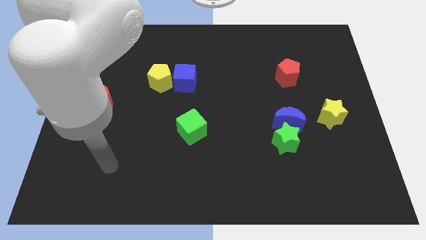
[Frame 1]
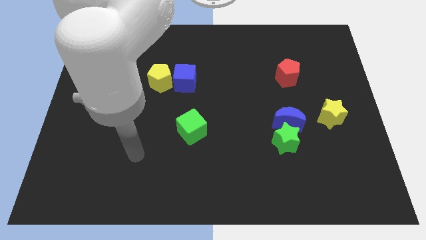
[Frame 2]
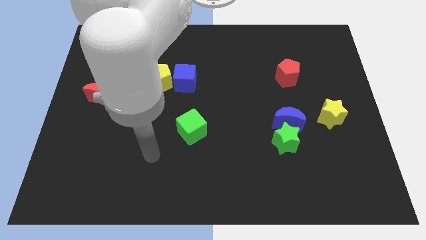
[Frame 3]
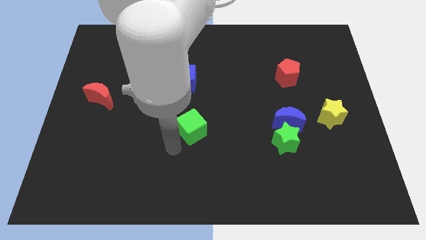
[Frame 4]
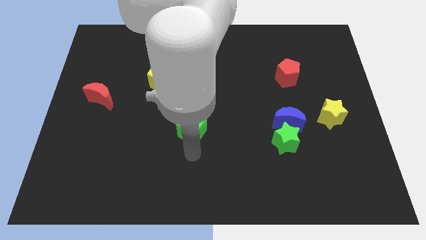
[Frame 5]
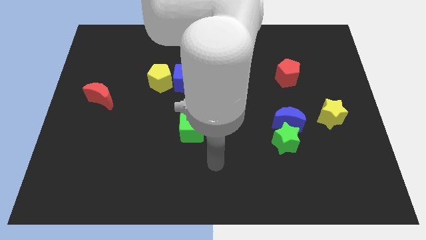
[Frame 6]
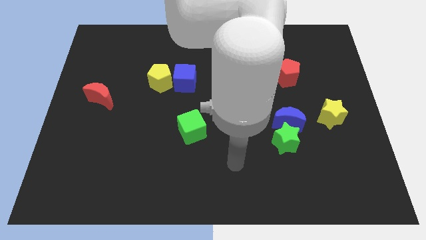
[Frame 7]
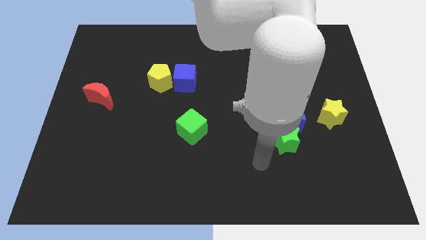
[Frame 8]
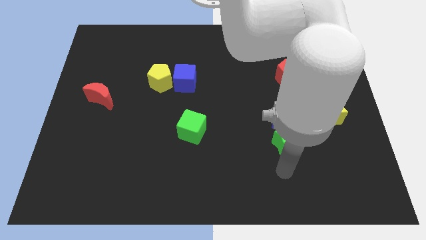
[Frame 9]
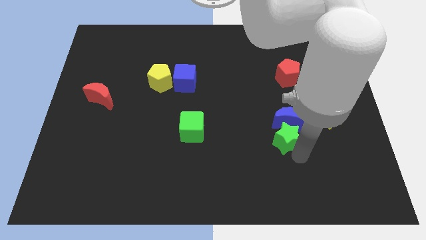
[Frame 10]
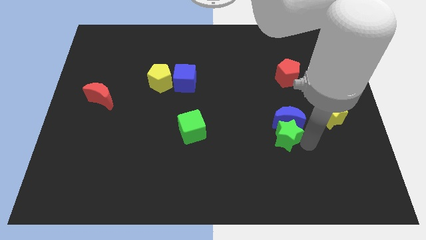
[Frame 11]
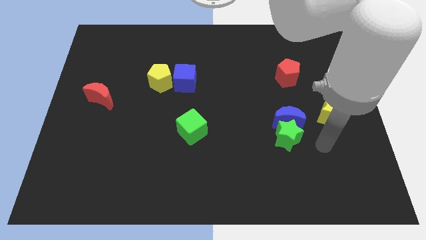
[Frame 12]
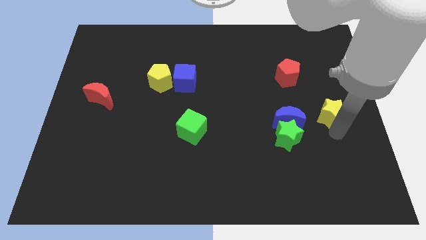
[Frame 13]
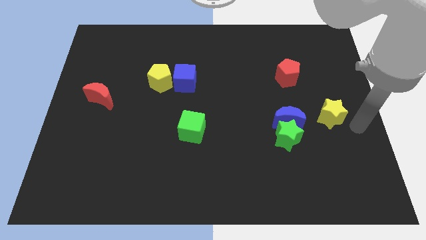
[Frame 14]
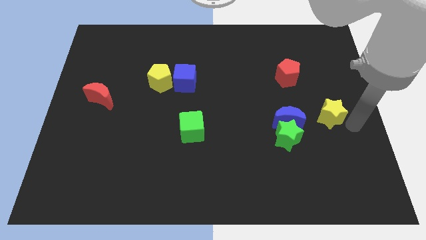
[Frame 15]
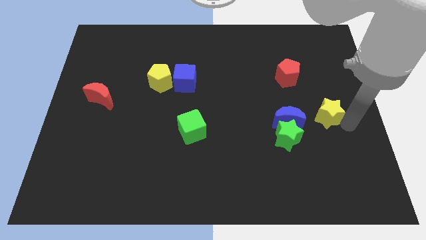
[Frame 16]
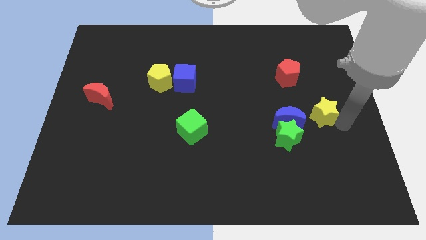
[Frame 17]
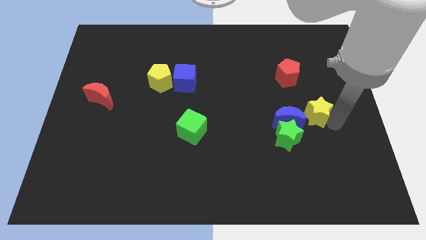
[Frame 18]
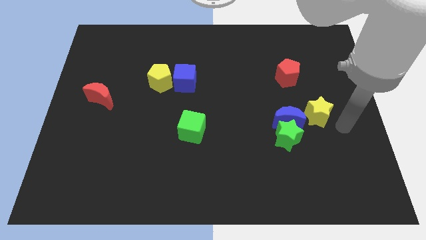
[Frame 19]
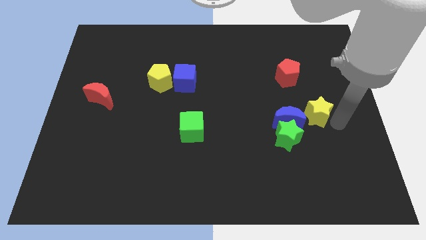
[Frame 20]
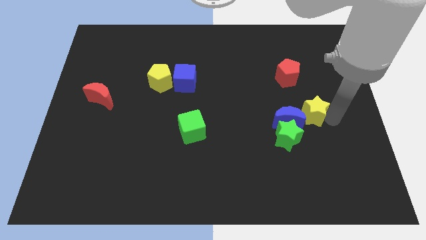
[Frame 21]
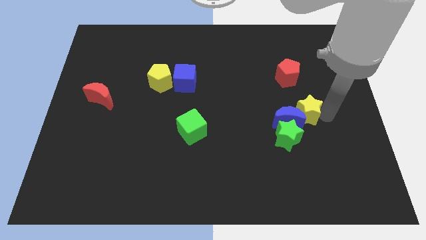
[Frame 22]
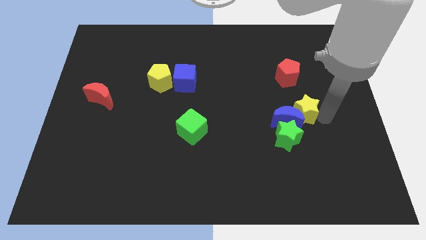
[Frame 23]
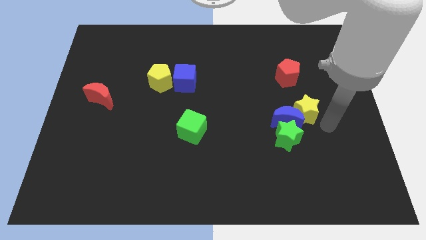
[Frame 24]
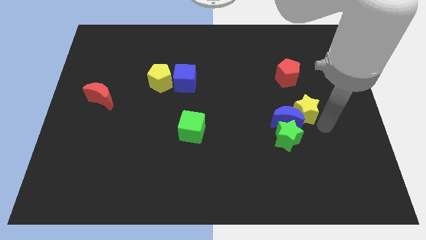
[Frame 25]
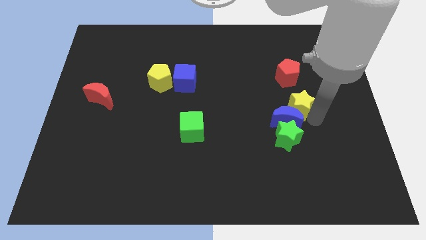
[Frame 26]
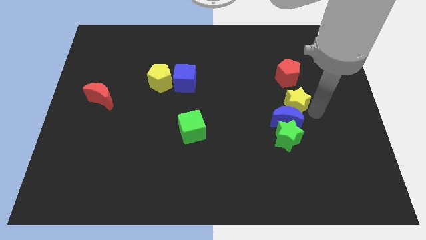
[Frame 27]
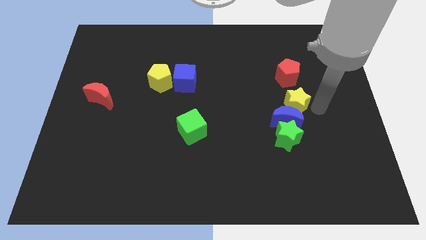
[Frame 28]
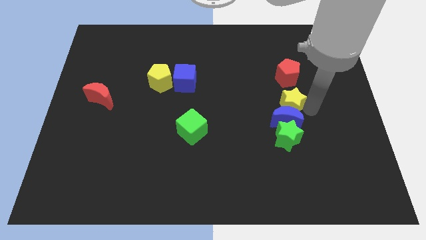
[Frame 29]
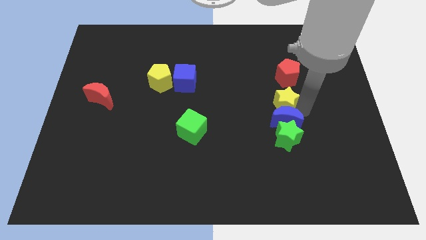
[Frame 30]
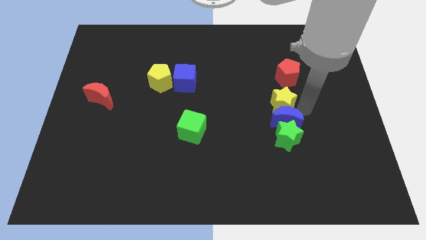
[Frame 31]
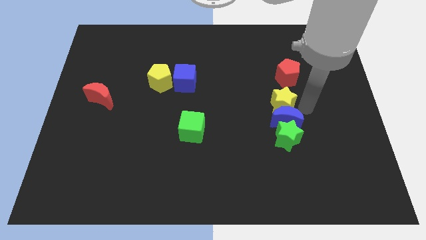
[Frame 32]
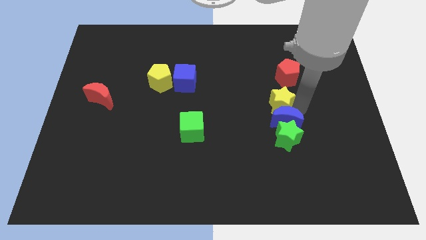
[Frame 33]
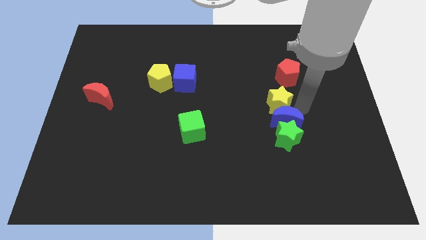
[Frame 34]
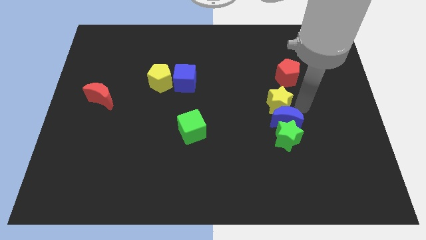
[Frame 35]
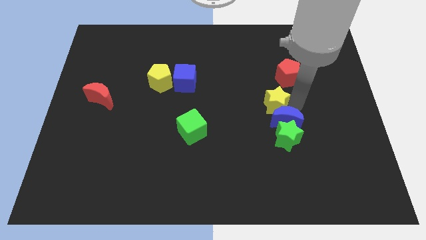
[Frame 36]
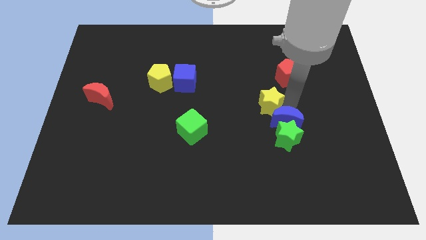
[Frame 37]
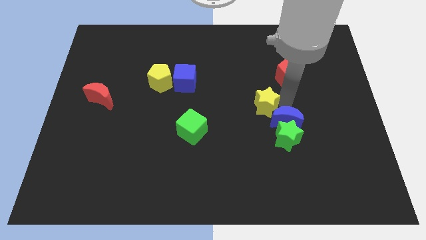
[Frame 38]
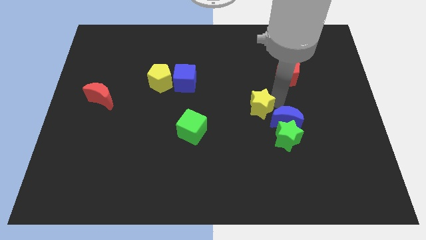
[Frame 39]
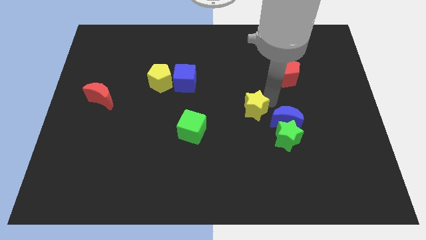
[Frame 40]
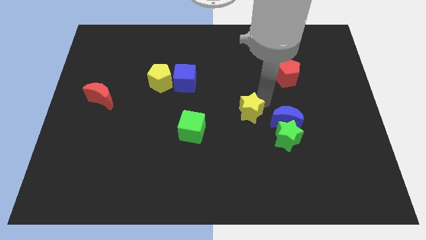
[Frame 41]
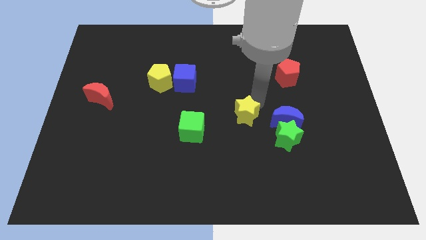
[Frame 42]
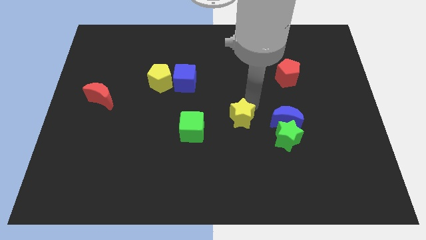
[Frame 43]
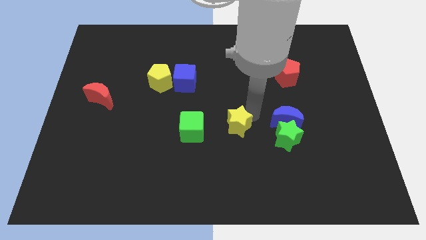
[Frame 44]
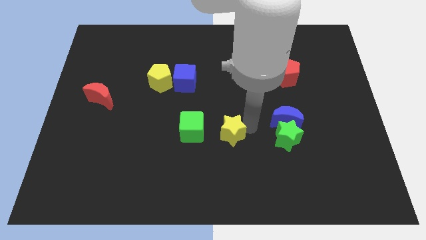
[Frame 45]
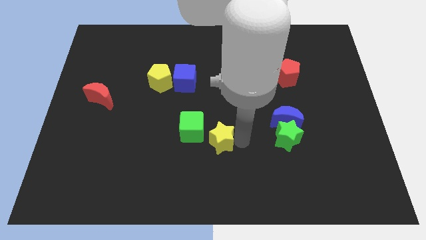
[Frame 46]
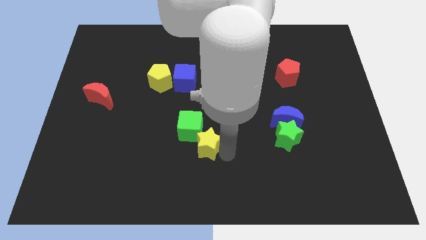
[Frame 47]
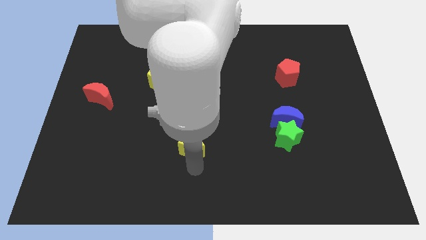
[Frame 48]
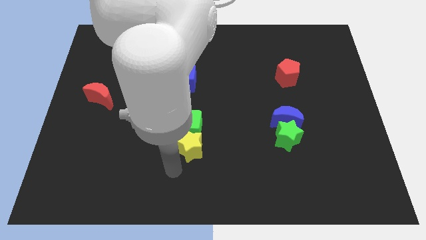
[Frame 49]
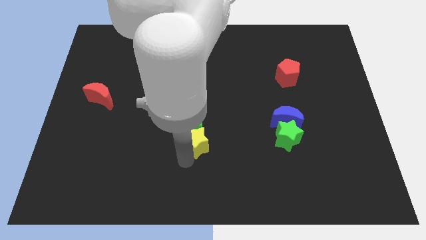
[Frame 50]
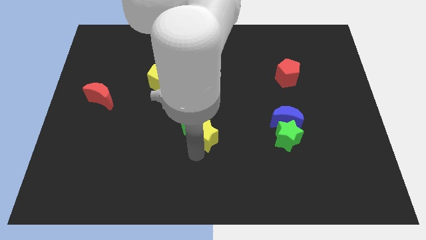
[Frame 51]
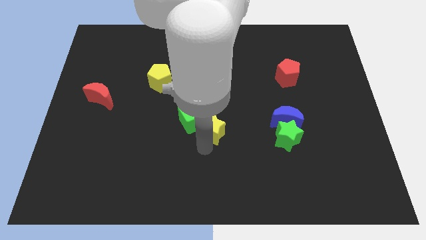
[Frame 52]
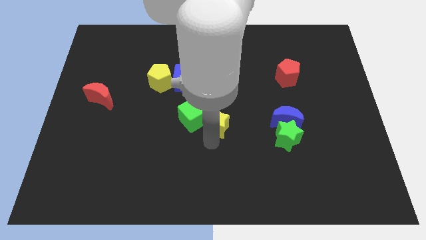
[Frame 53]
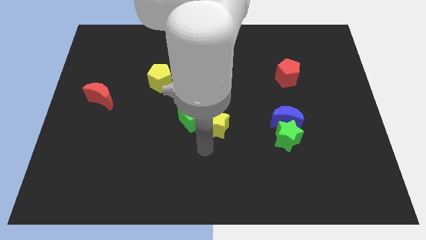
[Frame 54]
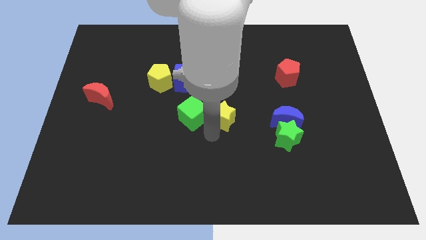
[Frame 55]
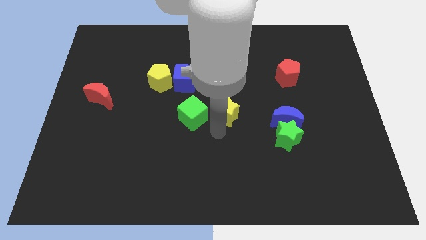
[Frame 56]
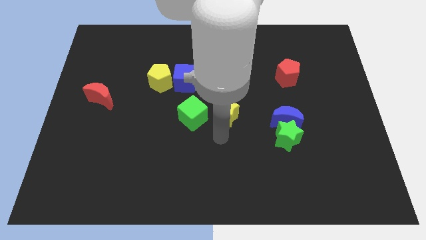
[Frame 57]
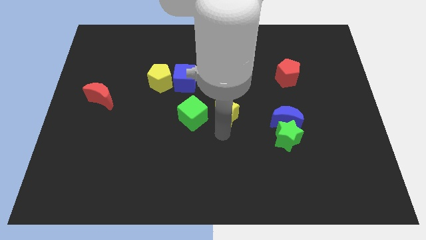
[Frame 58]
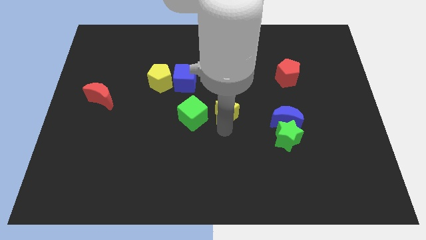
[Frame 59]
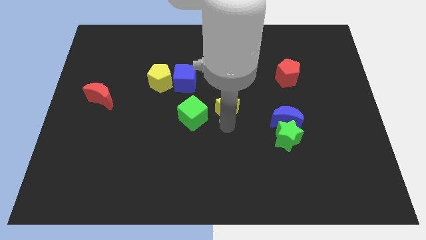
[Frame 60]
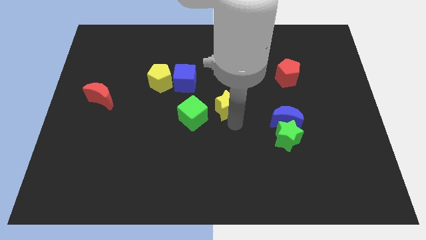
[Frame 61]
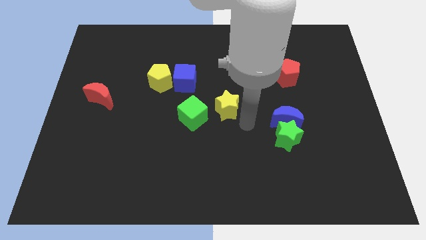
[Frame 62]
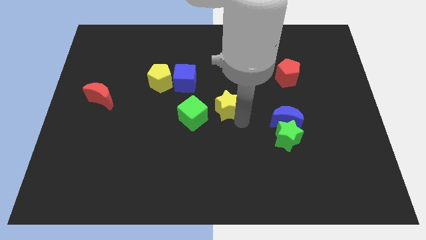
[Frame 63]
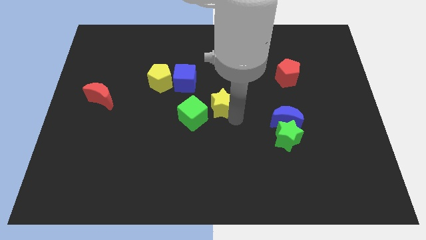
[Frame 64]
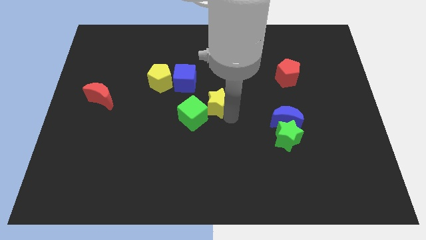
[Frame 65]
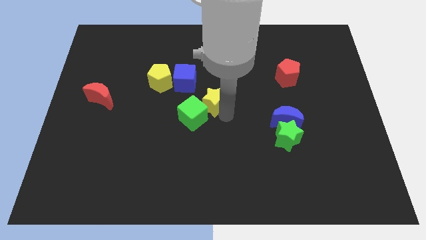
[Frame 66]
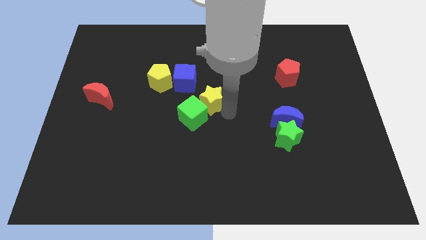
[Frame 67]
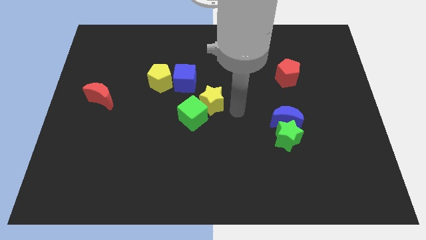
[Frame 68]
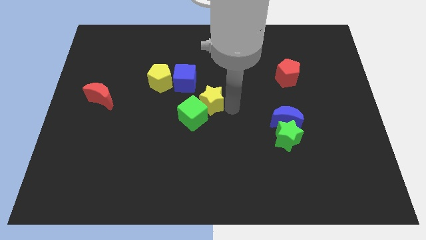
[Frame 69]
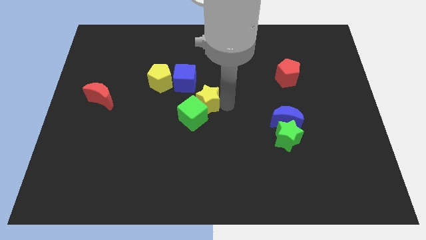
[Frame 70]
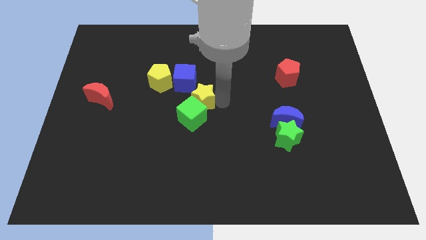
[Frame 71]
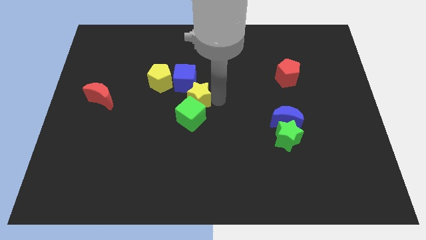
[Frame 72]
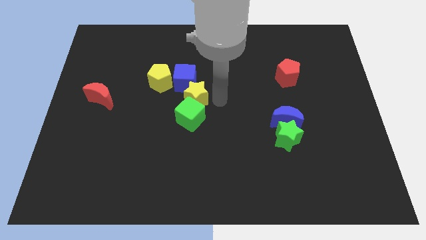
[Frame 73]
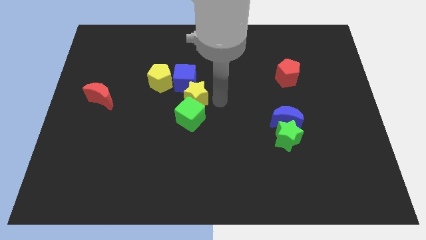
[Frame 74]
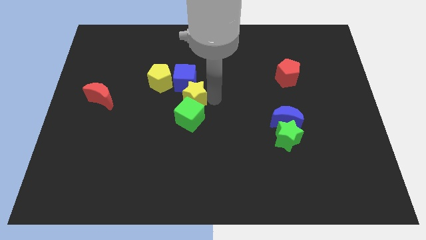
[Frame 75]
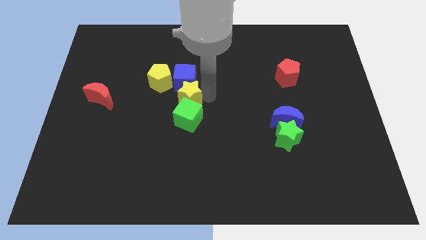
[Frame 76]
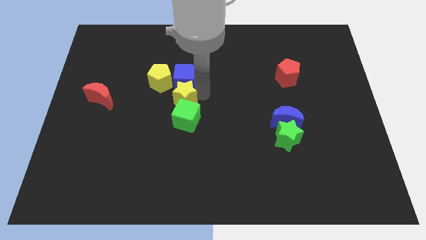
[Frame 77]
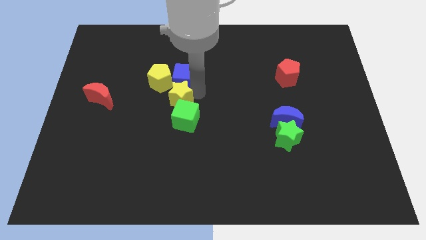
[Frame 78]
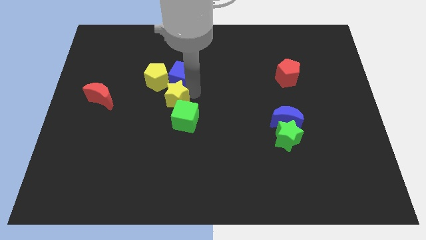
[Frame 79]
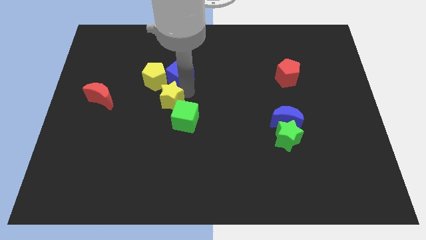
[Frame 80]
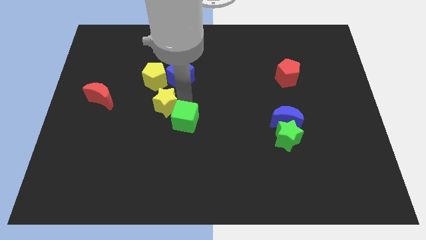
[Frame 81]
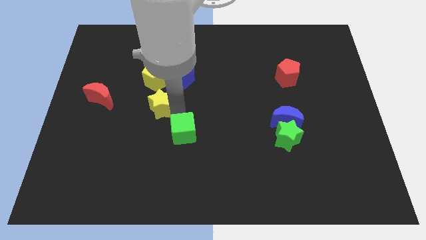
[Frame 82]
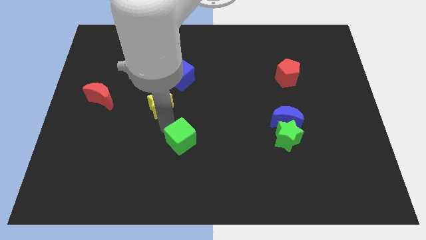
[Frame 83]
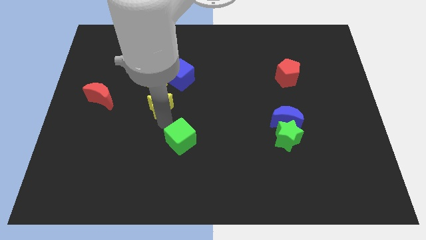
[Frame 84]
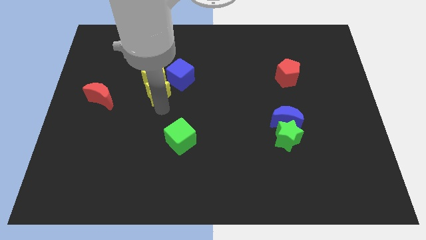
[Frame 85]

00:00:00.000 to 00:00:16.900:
put the yellow star close to the yellow pentagon
